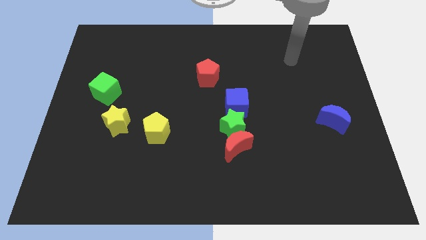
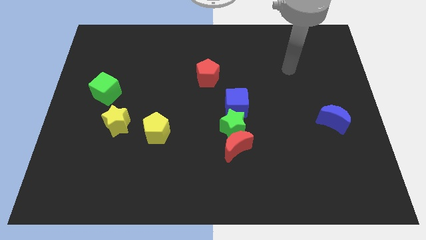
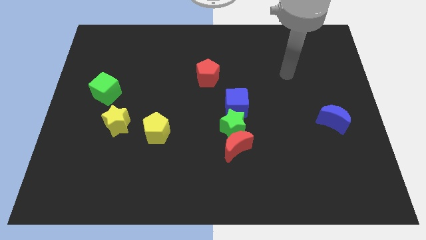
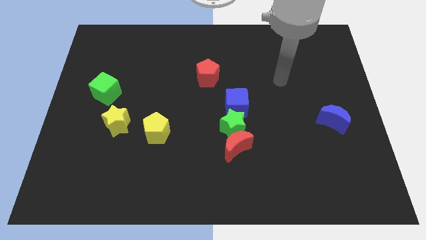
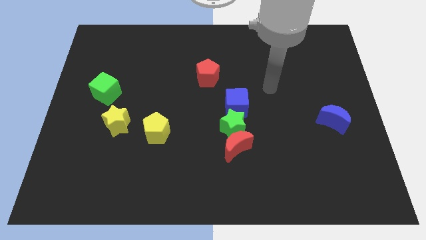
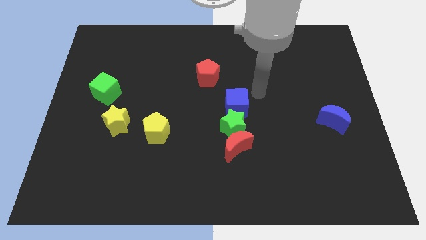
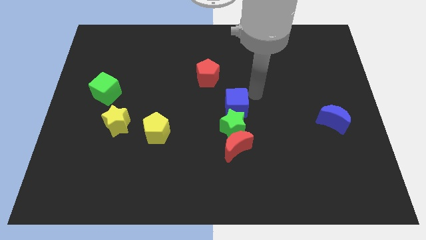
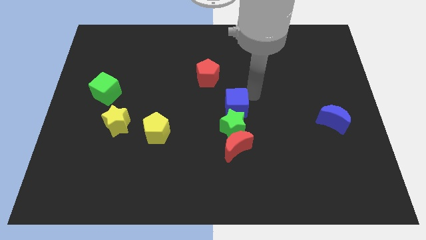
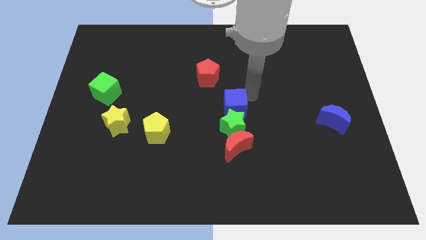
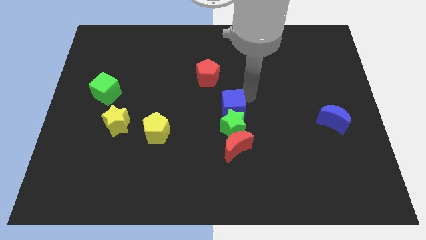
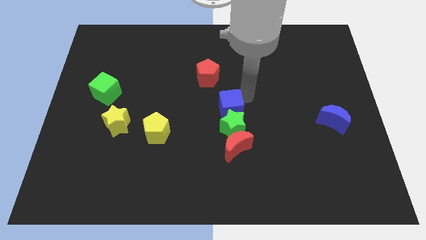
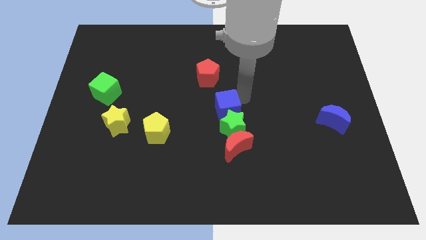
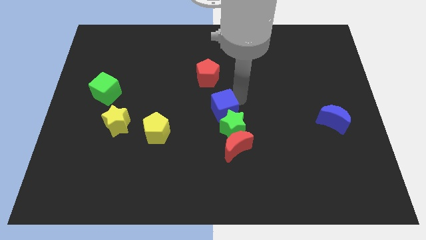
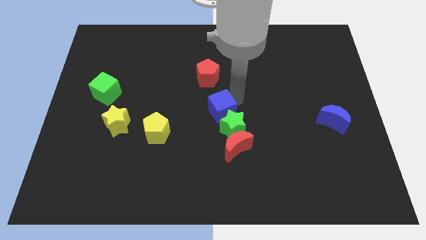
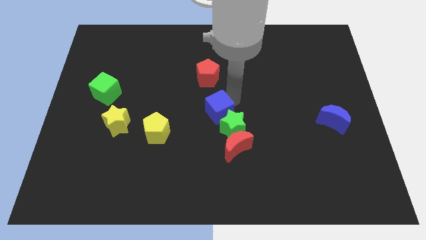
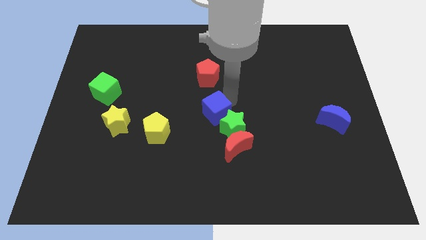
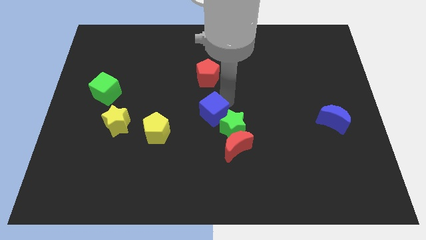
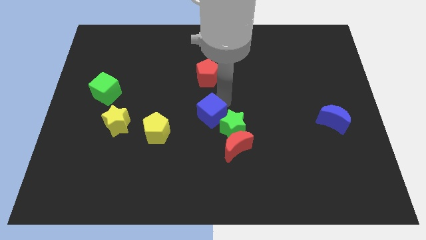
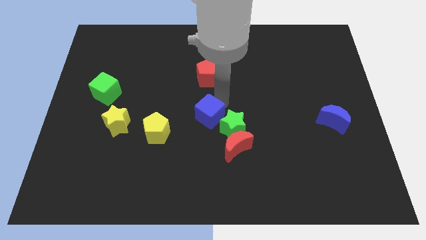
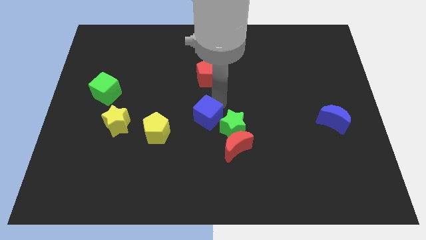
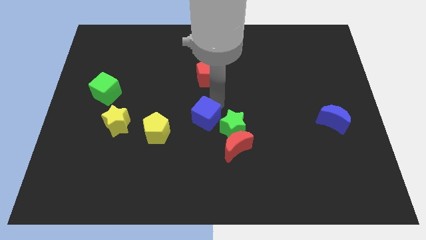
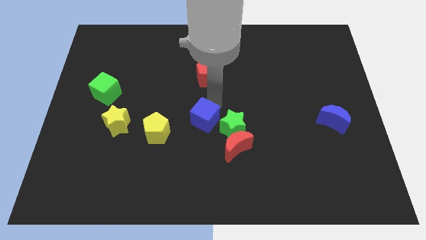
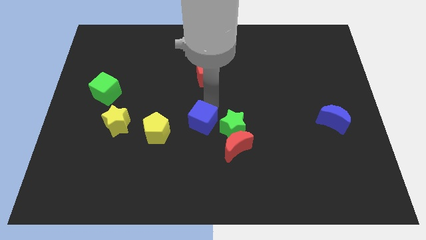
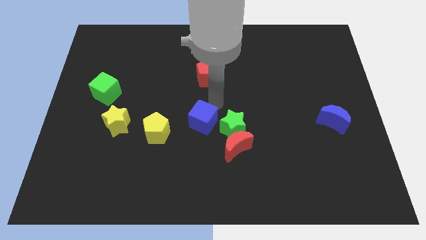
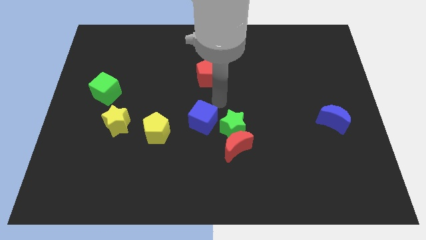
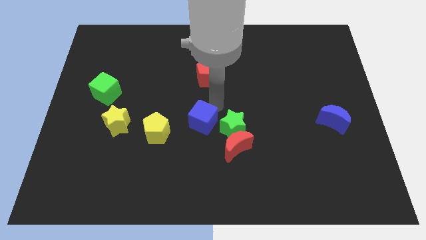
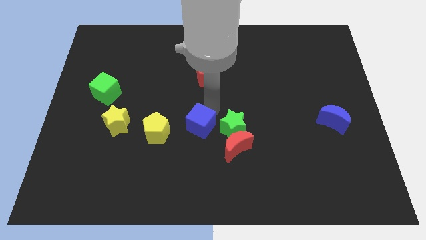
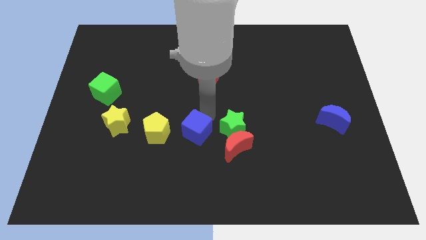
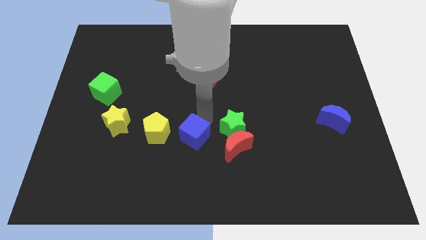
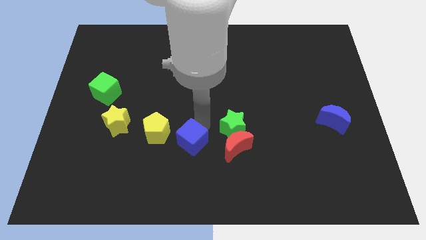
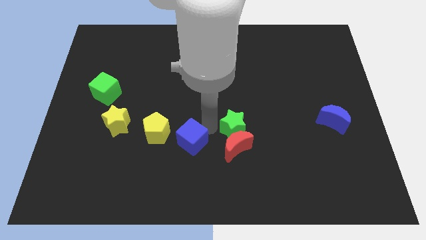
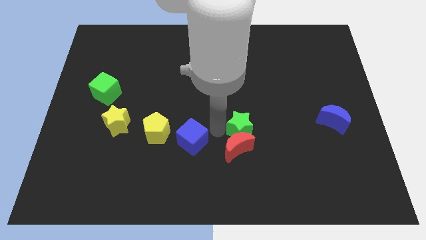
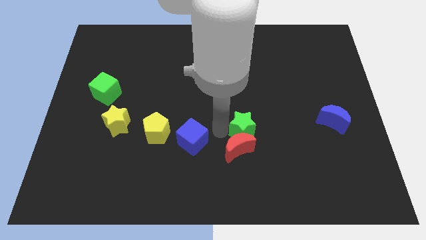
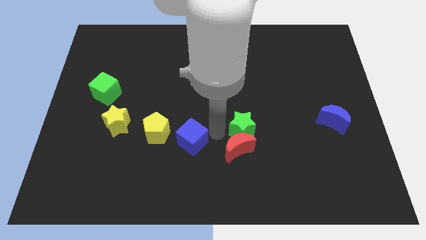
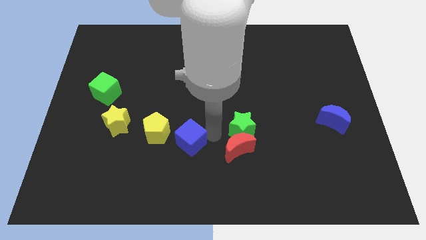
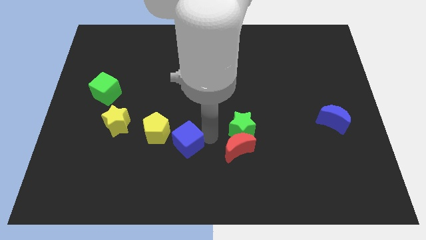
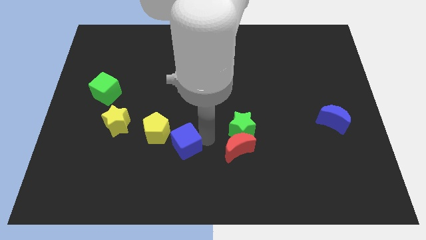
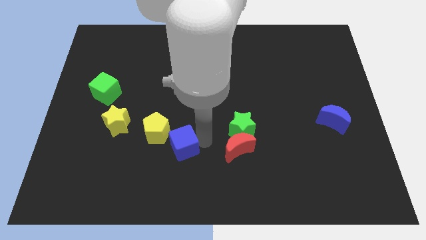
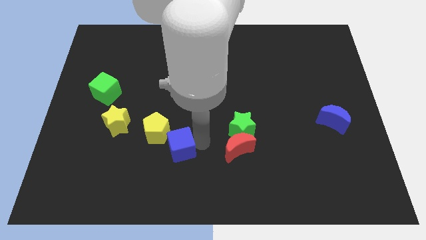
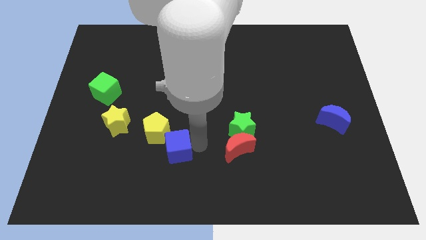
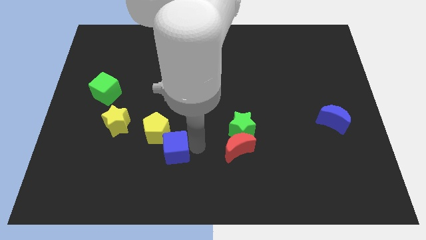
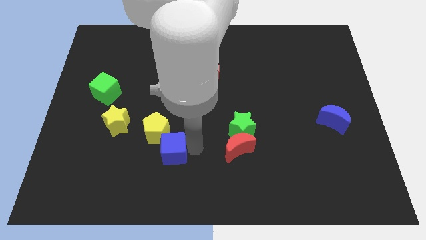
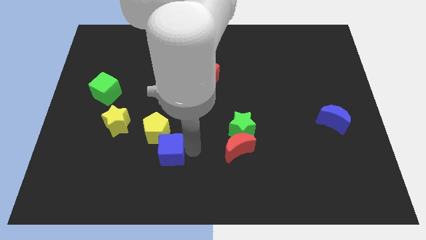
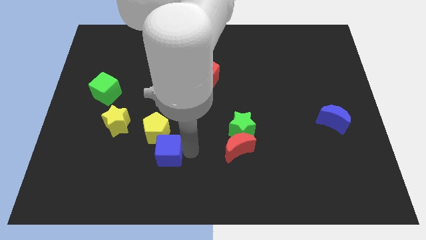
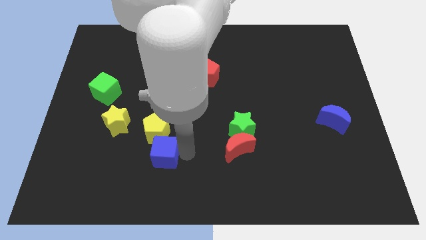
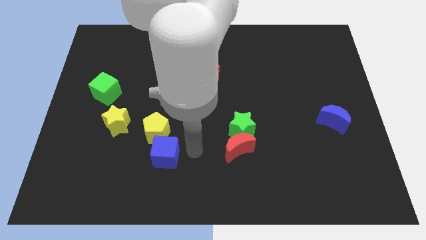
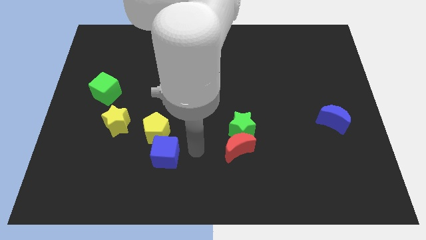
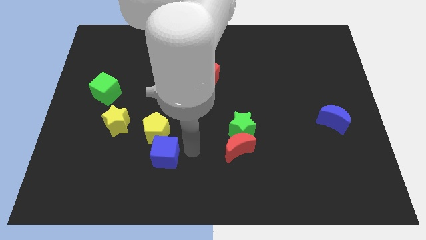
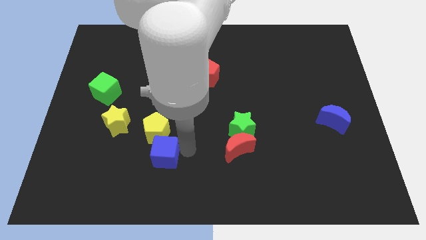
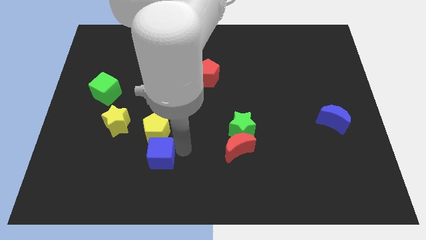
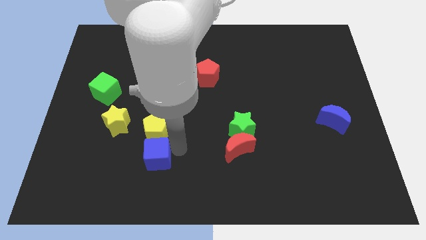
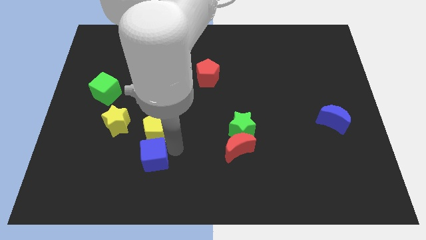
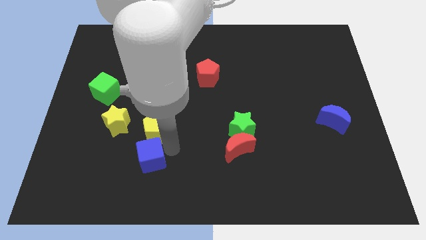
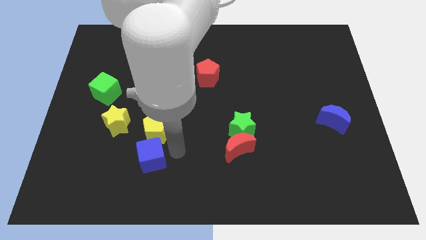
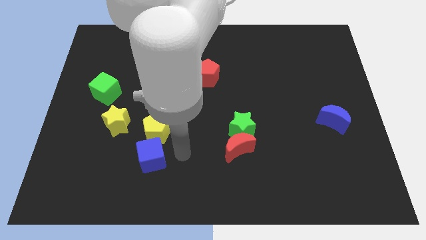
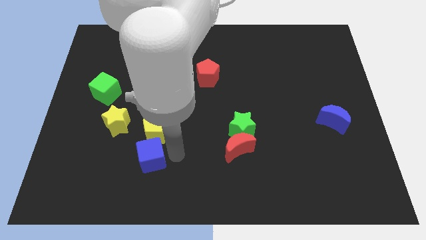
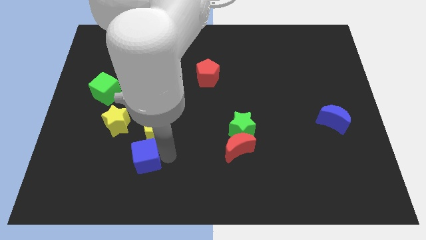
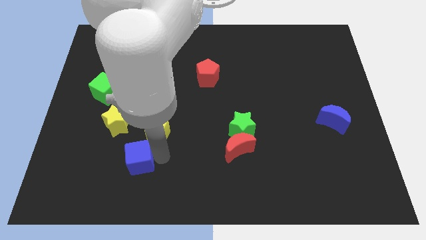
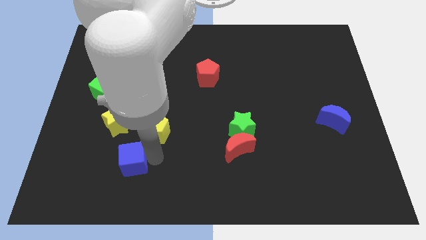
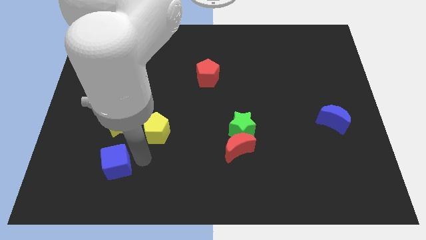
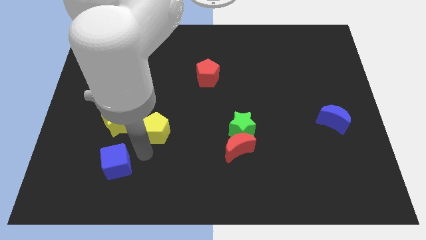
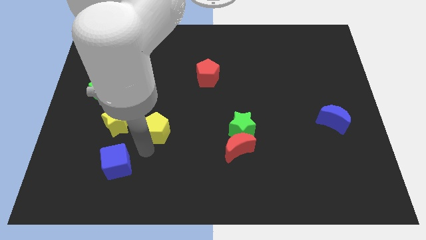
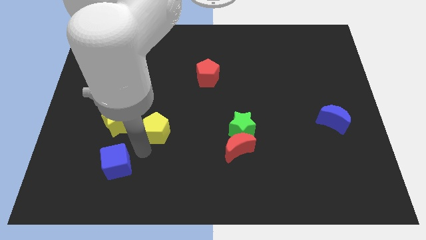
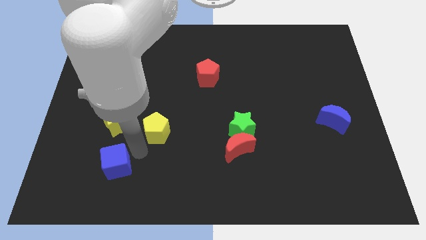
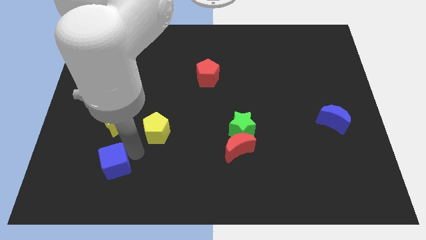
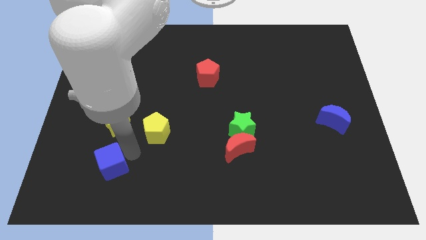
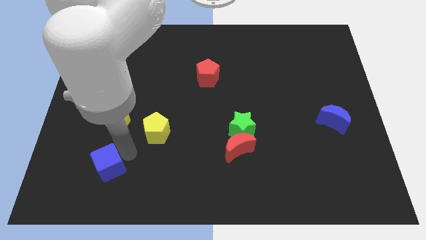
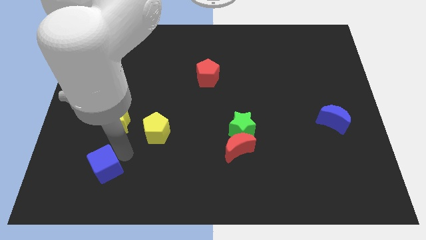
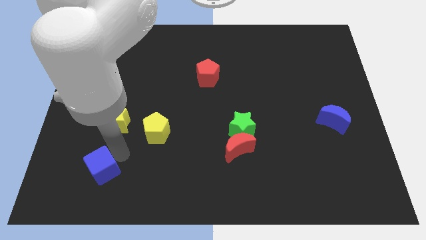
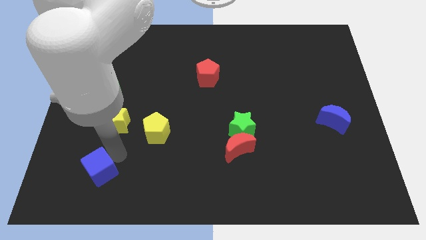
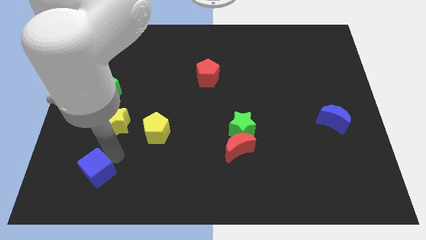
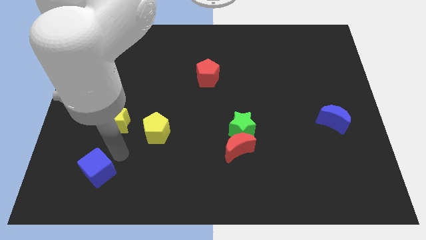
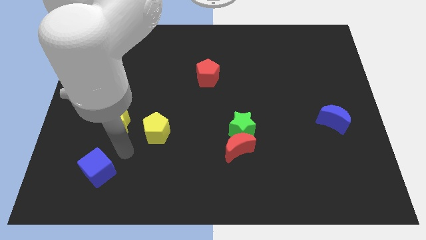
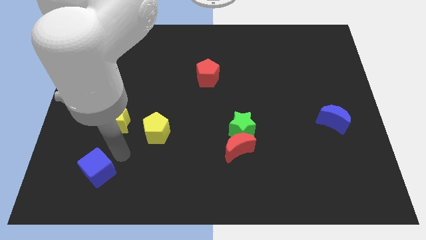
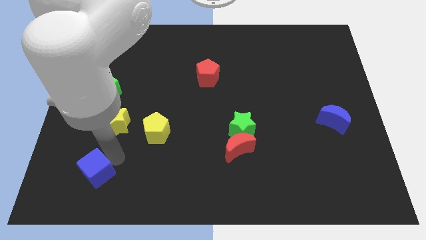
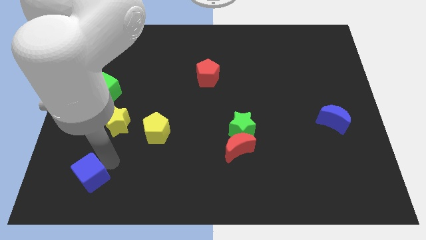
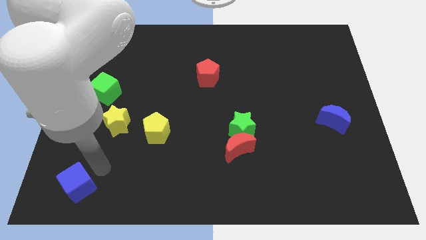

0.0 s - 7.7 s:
put the blue cube to the lower left corner
